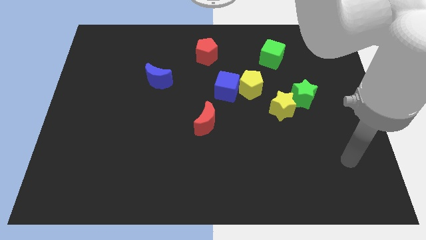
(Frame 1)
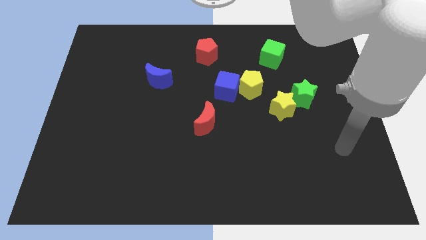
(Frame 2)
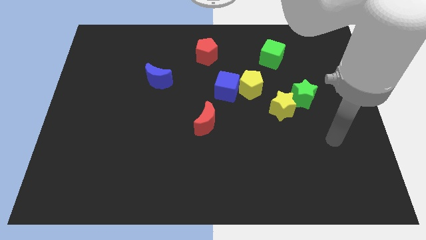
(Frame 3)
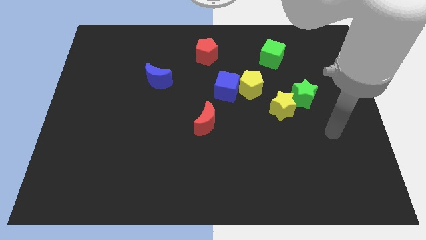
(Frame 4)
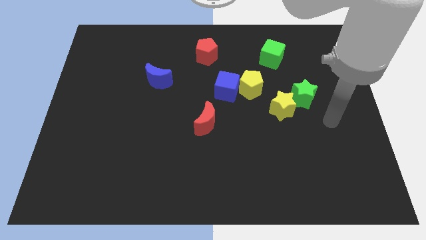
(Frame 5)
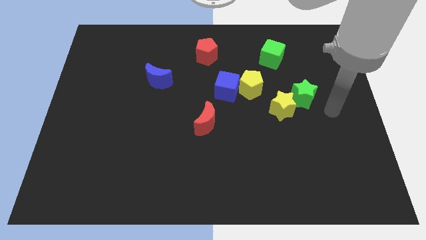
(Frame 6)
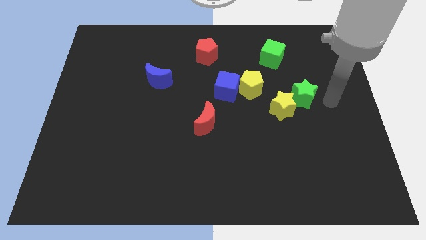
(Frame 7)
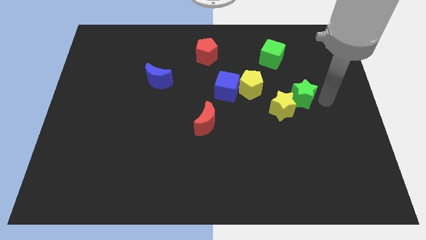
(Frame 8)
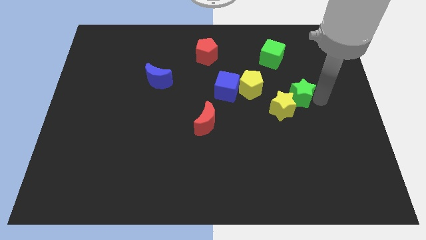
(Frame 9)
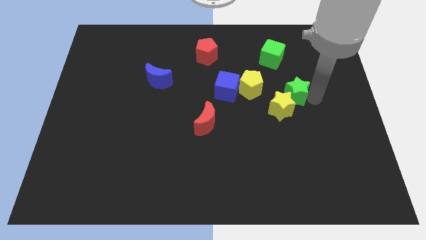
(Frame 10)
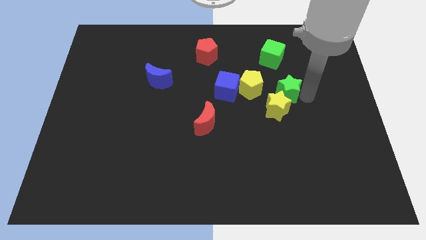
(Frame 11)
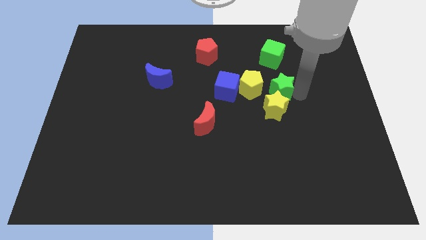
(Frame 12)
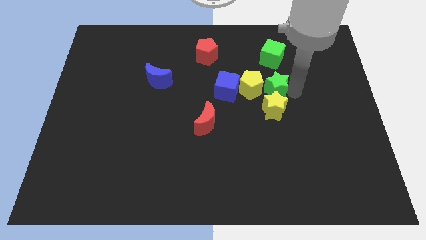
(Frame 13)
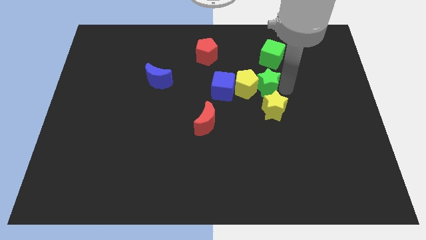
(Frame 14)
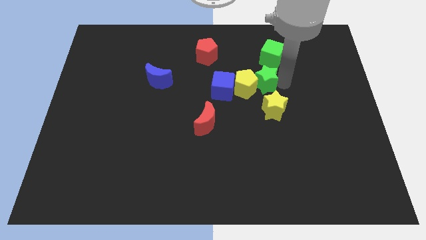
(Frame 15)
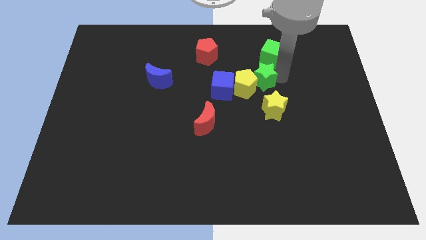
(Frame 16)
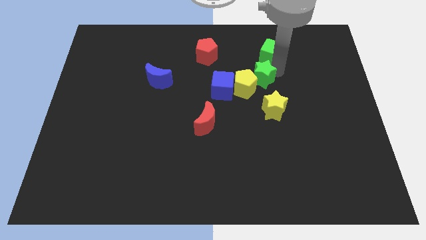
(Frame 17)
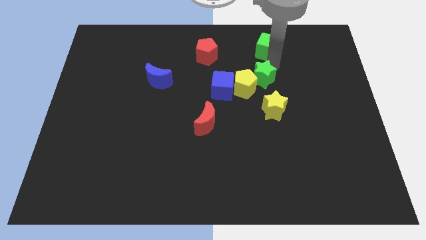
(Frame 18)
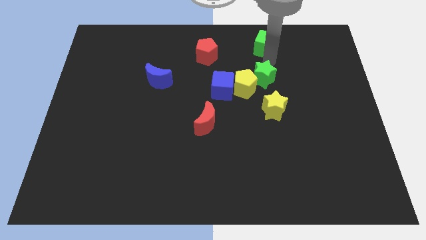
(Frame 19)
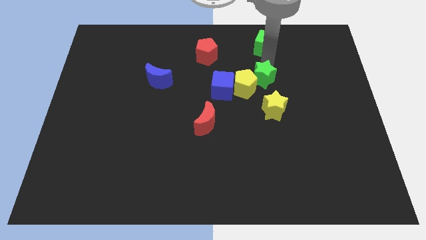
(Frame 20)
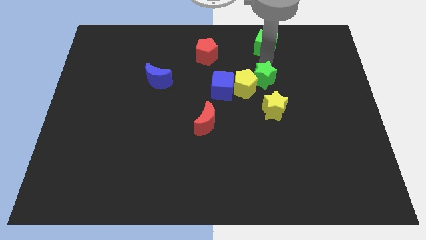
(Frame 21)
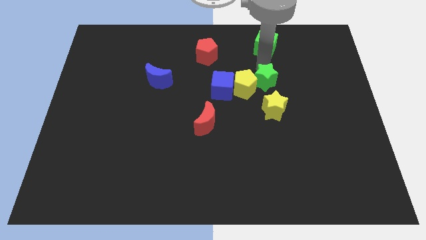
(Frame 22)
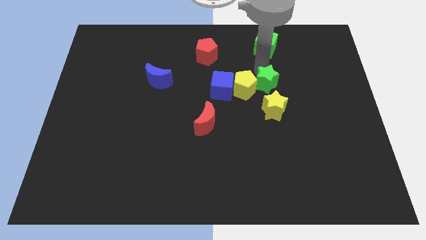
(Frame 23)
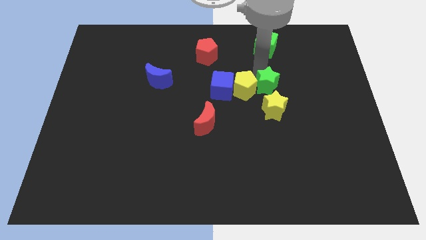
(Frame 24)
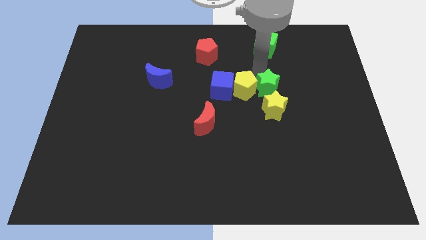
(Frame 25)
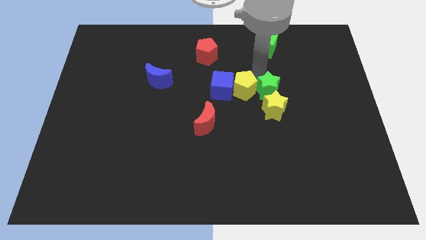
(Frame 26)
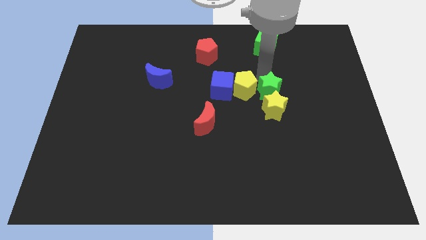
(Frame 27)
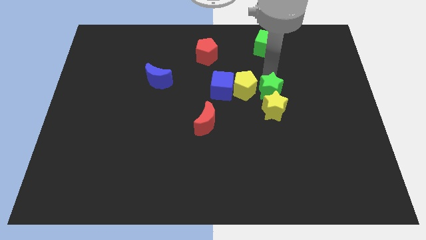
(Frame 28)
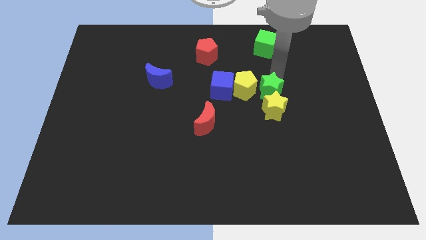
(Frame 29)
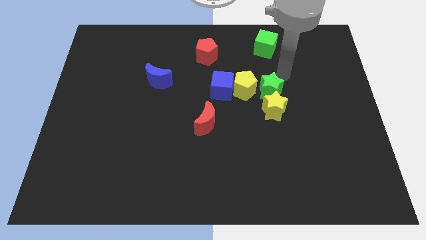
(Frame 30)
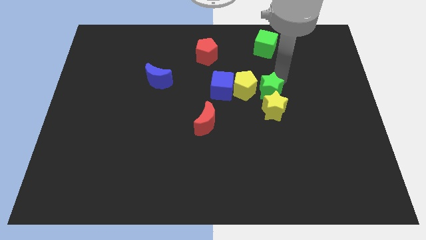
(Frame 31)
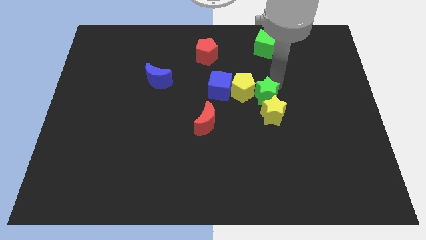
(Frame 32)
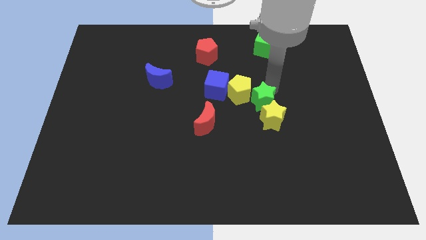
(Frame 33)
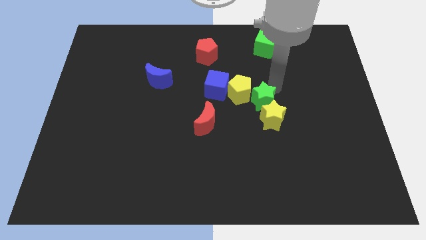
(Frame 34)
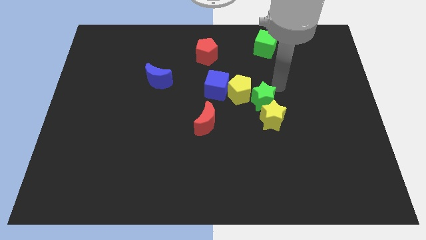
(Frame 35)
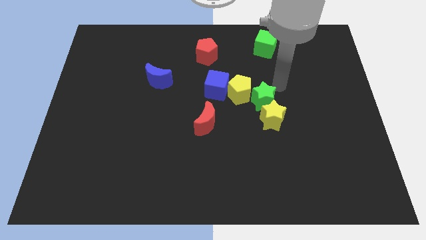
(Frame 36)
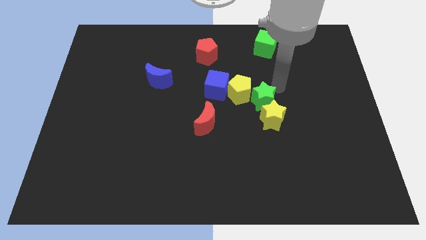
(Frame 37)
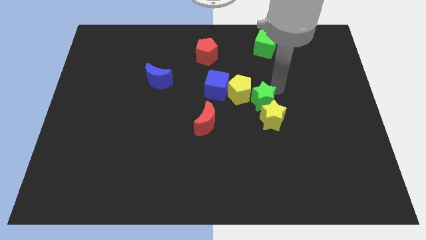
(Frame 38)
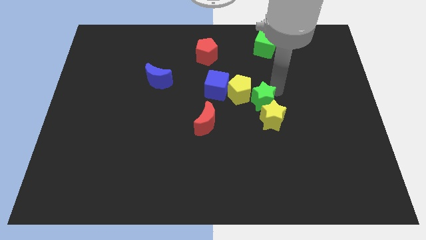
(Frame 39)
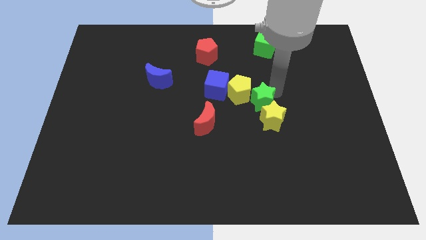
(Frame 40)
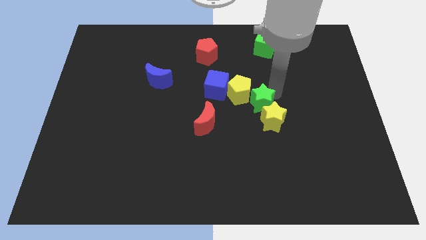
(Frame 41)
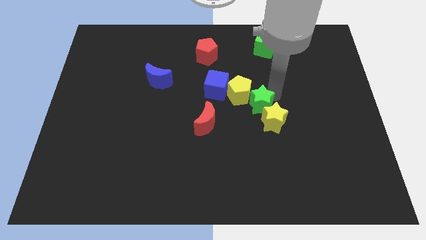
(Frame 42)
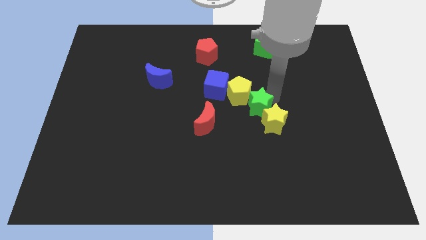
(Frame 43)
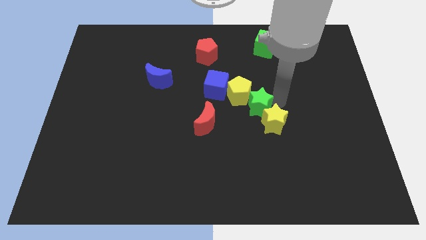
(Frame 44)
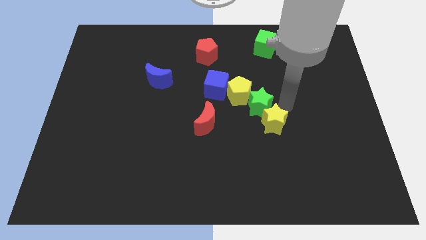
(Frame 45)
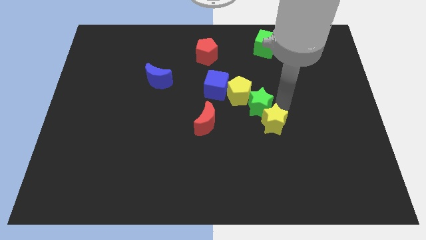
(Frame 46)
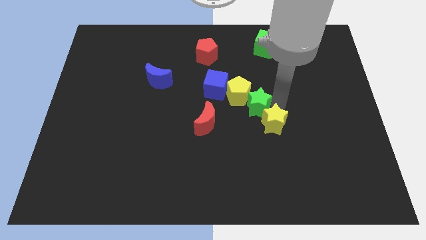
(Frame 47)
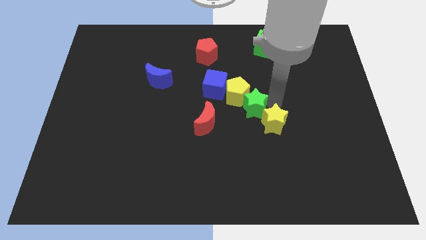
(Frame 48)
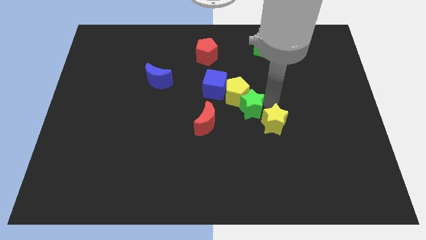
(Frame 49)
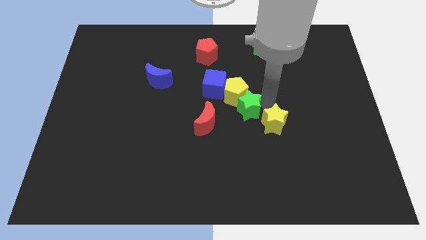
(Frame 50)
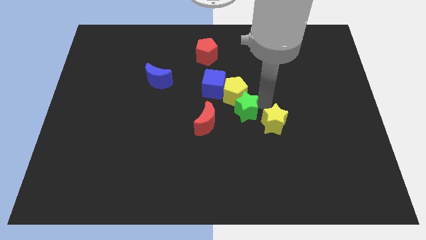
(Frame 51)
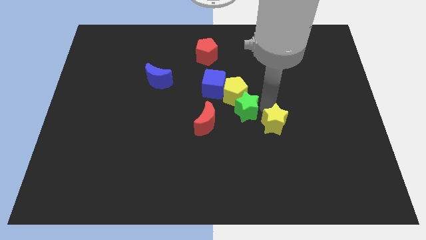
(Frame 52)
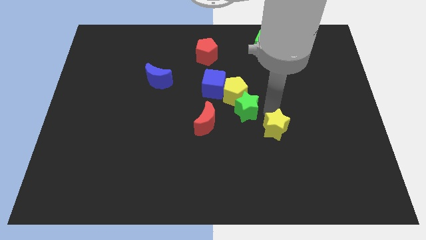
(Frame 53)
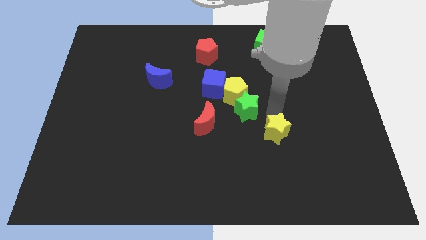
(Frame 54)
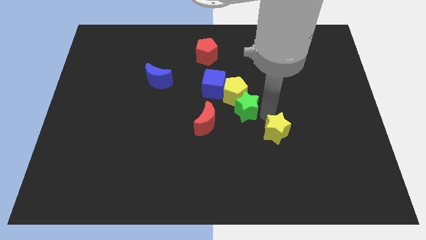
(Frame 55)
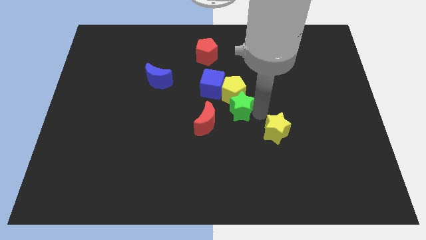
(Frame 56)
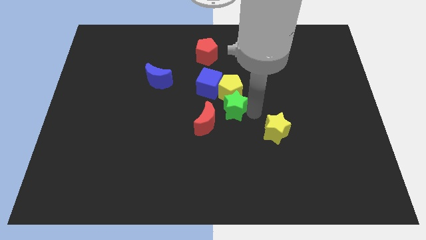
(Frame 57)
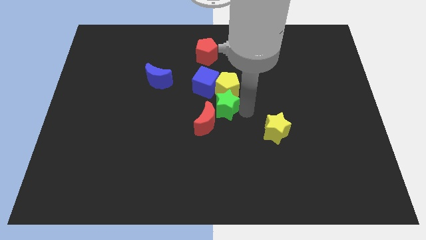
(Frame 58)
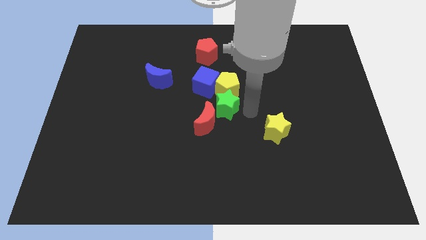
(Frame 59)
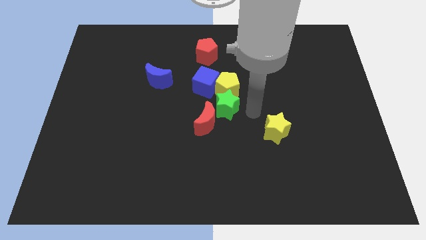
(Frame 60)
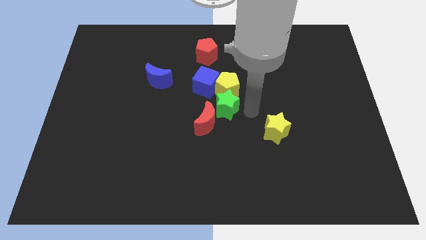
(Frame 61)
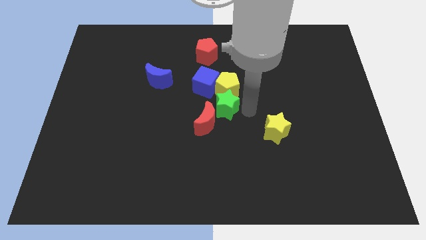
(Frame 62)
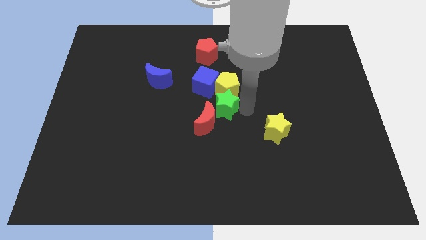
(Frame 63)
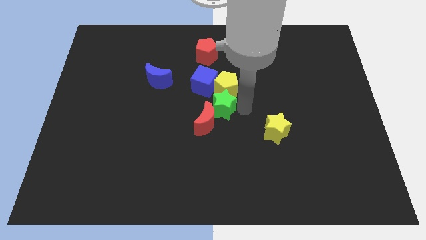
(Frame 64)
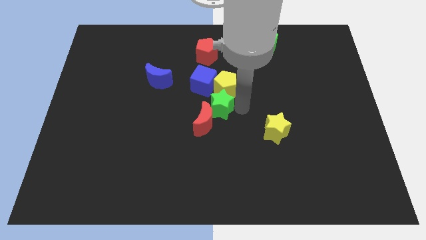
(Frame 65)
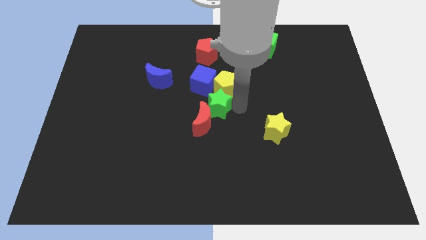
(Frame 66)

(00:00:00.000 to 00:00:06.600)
move the green star left

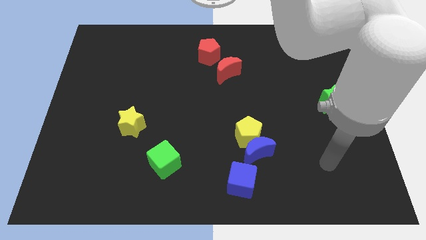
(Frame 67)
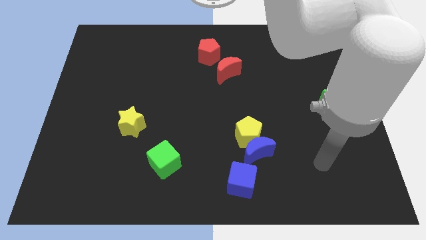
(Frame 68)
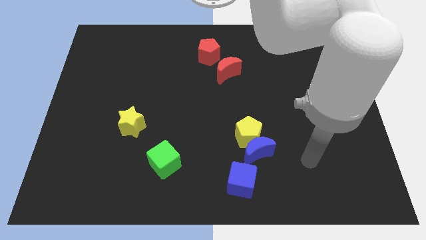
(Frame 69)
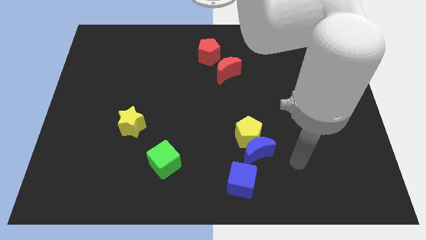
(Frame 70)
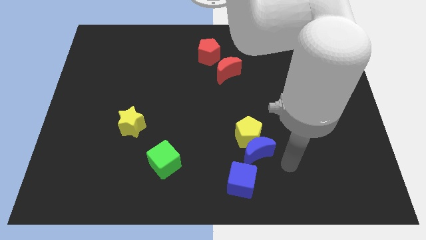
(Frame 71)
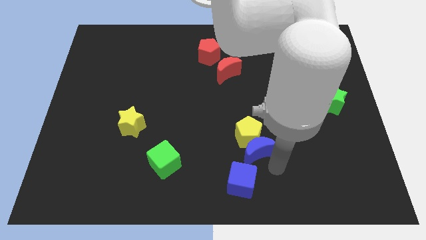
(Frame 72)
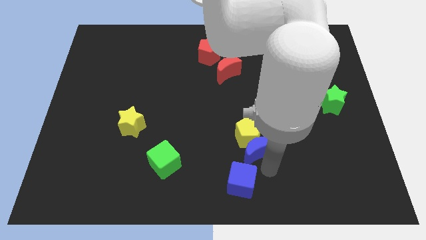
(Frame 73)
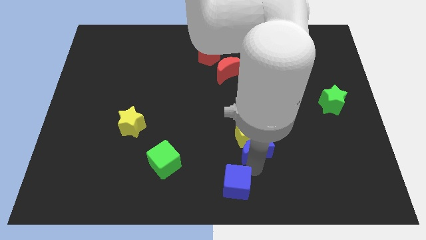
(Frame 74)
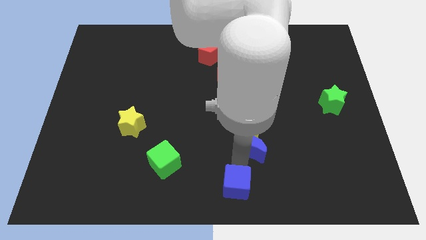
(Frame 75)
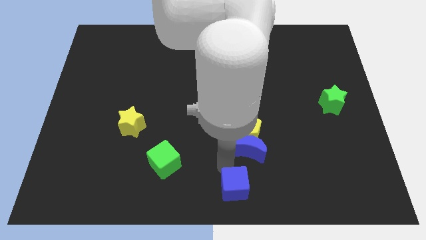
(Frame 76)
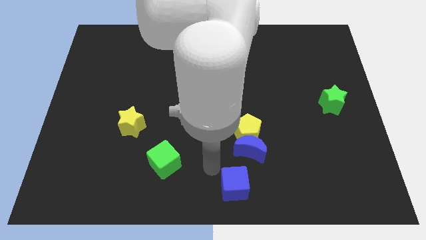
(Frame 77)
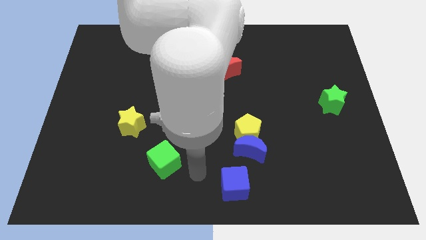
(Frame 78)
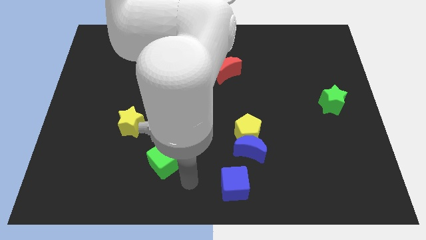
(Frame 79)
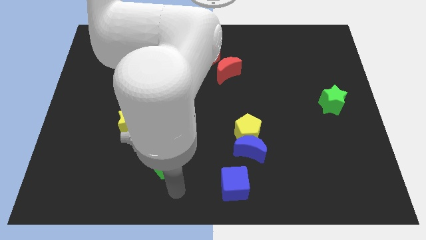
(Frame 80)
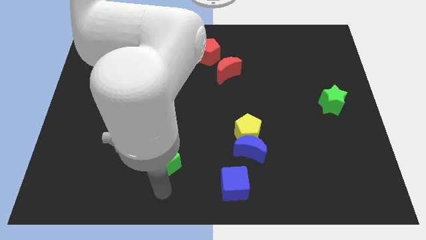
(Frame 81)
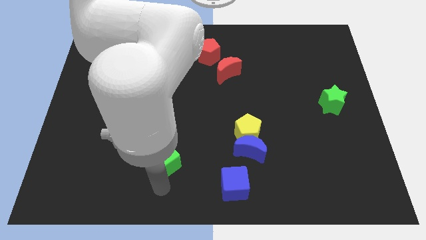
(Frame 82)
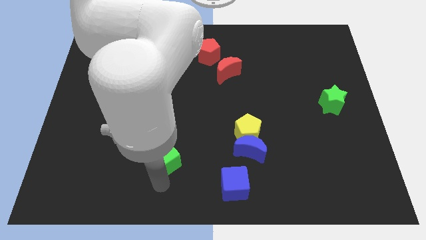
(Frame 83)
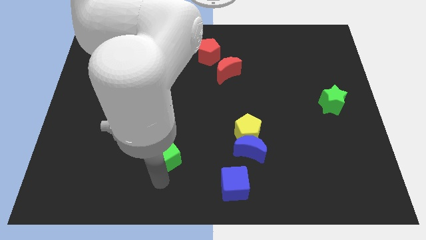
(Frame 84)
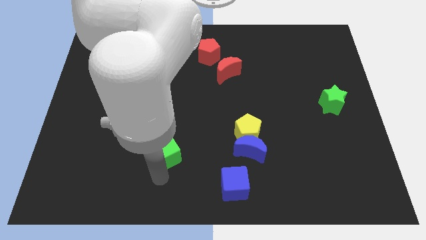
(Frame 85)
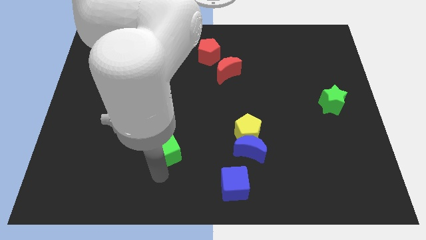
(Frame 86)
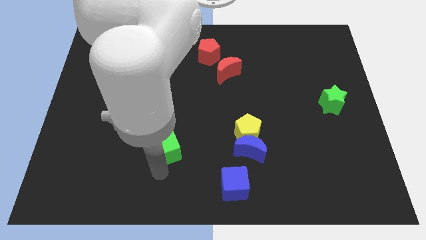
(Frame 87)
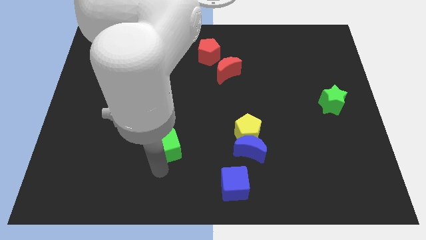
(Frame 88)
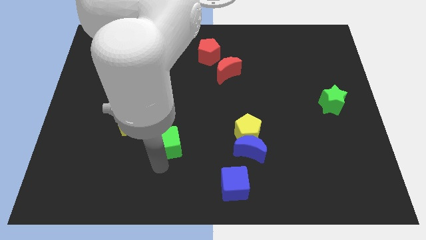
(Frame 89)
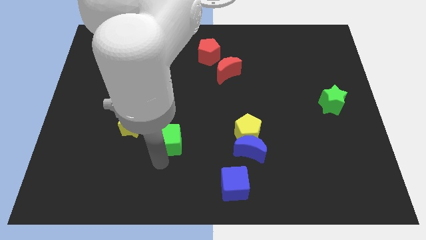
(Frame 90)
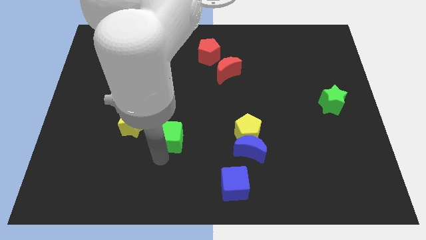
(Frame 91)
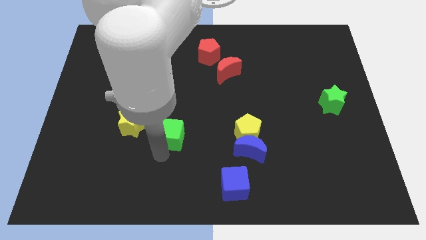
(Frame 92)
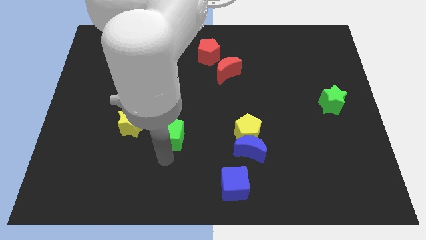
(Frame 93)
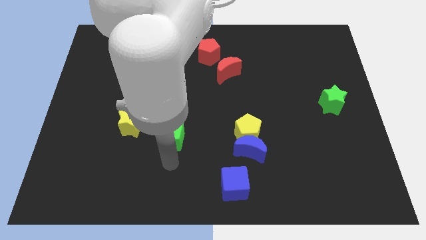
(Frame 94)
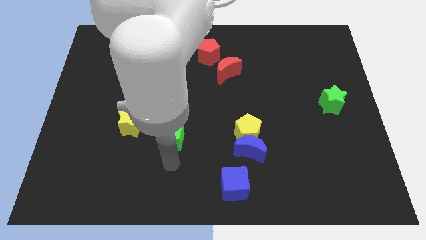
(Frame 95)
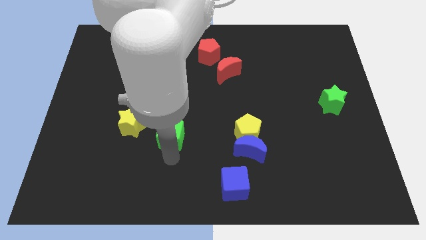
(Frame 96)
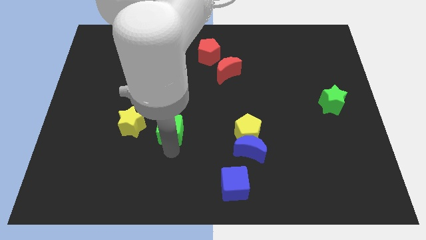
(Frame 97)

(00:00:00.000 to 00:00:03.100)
slightly move the green cube up
